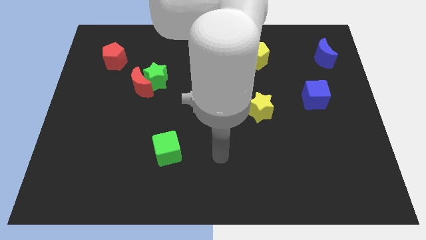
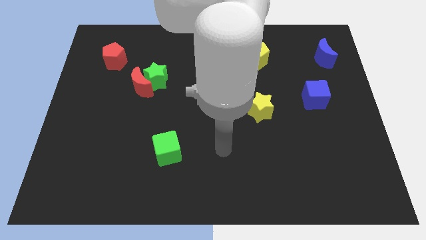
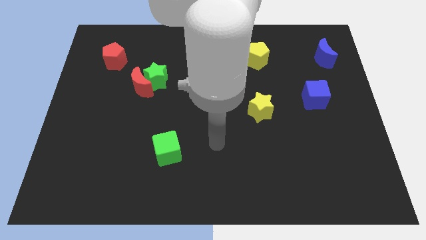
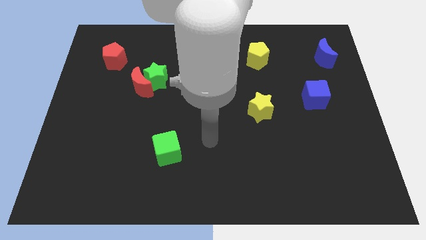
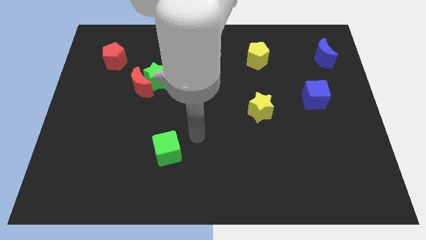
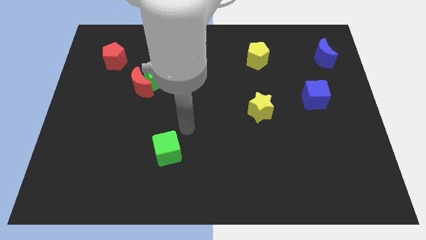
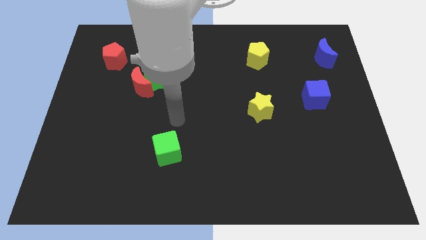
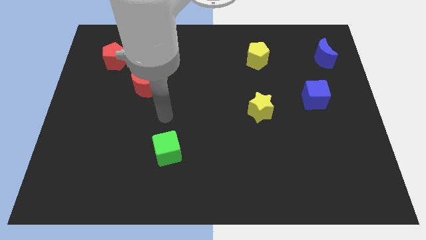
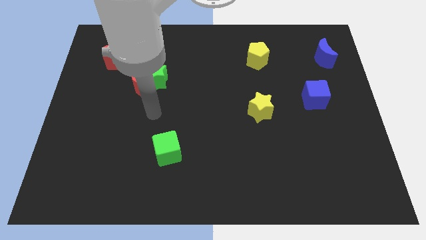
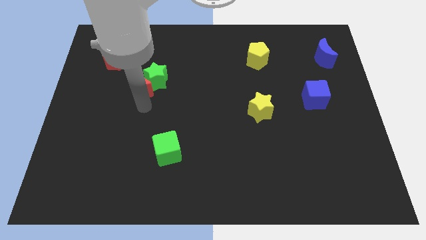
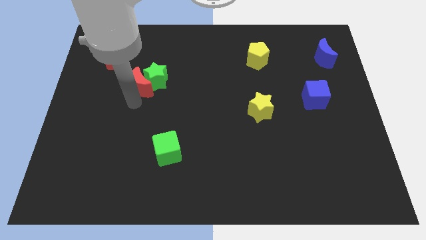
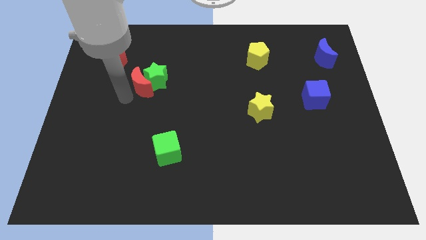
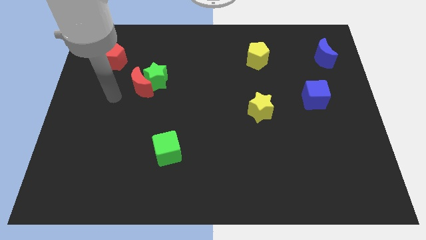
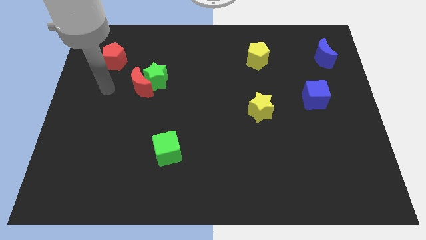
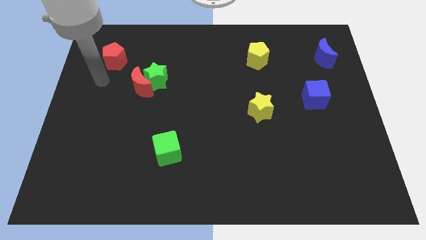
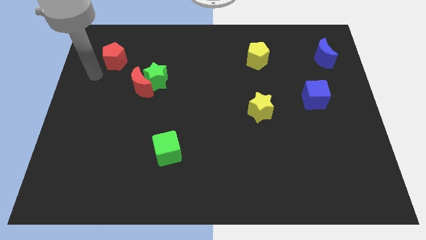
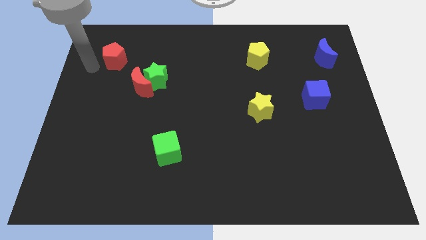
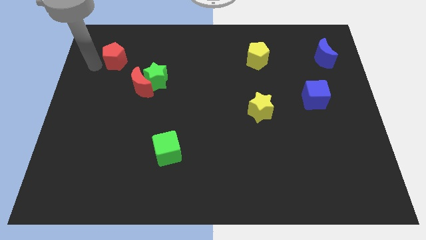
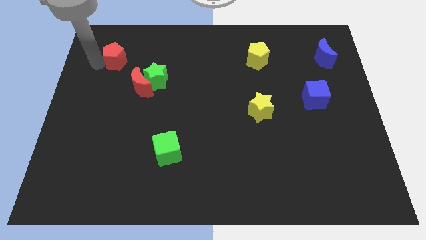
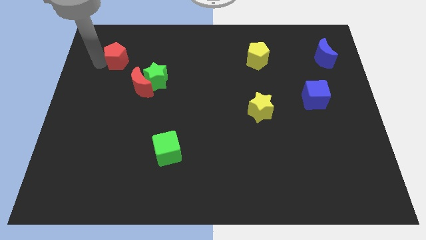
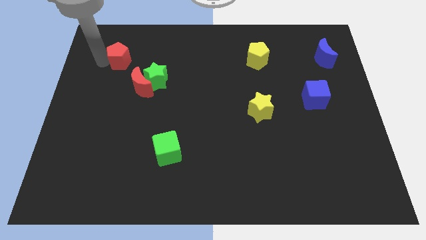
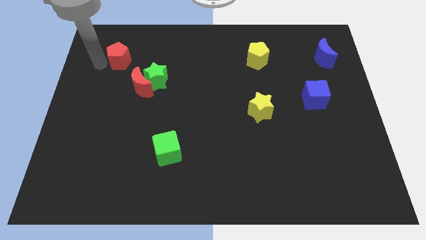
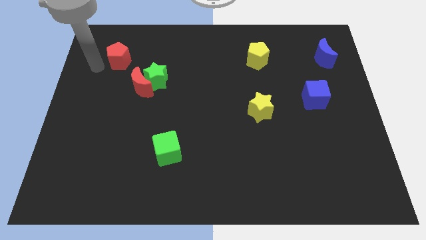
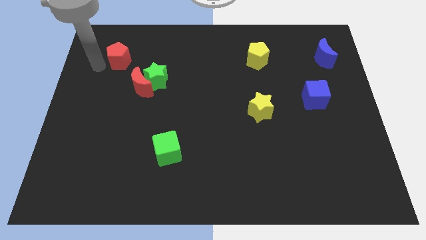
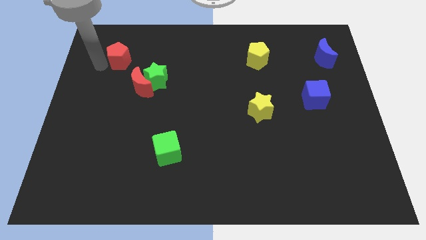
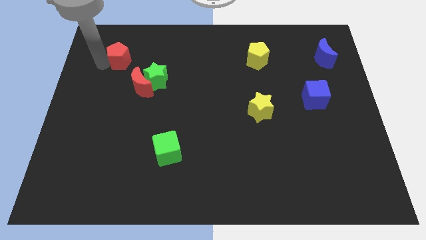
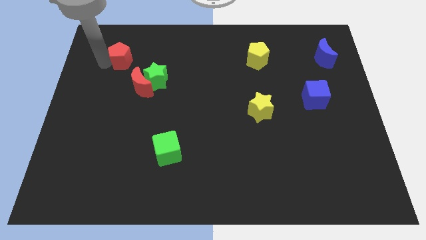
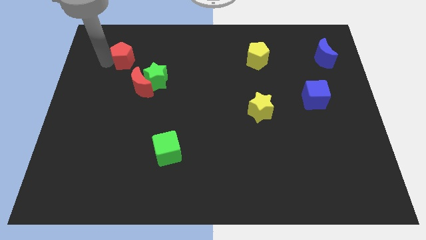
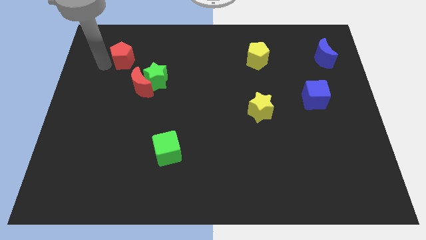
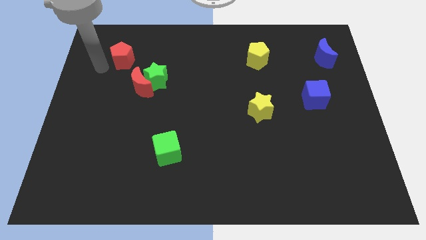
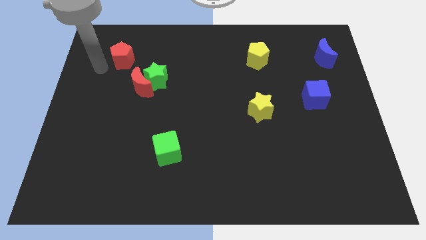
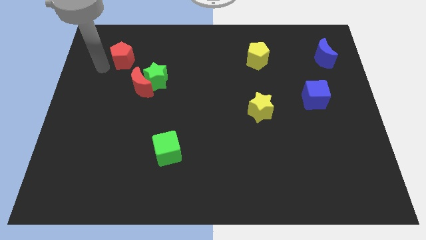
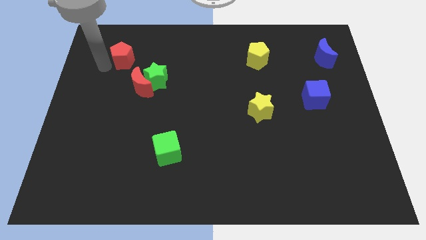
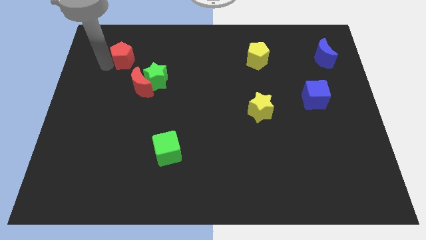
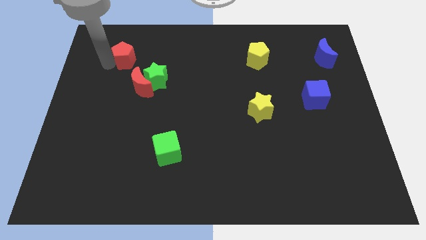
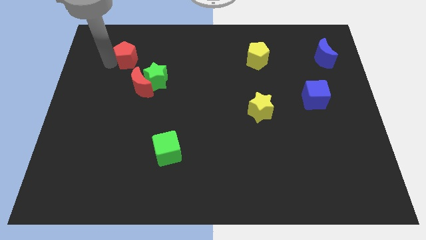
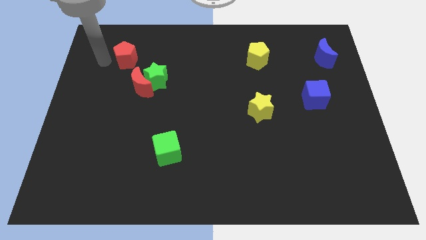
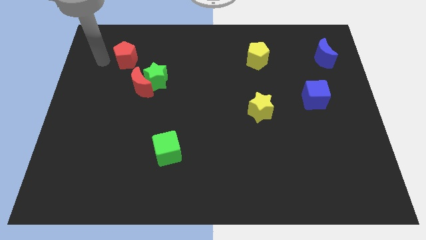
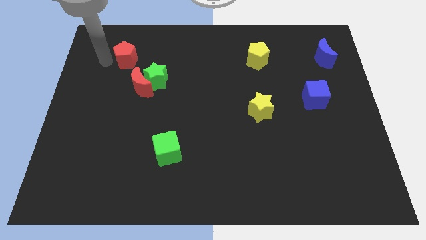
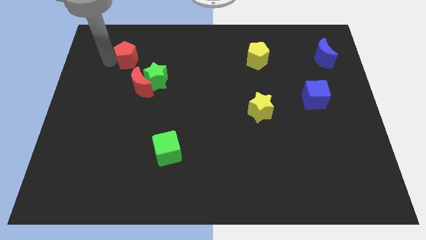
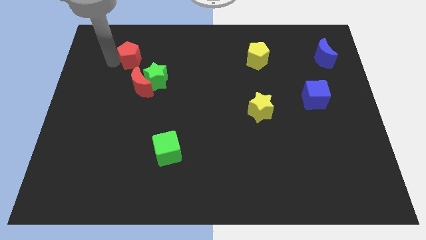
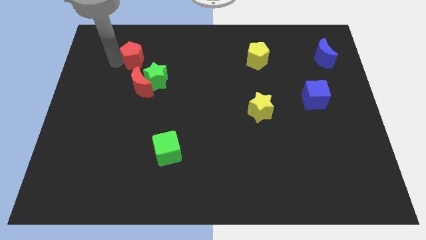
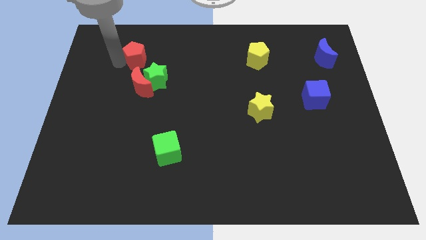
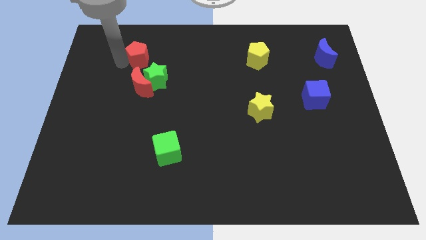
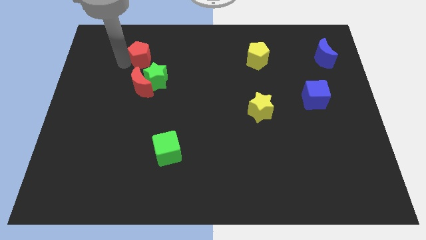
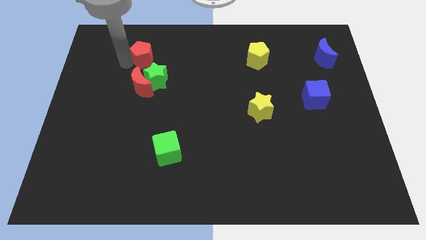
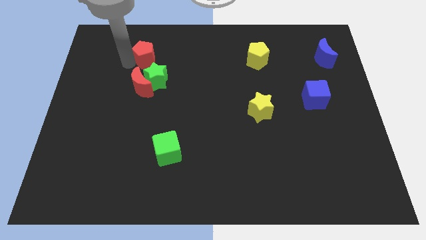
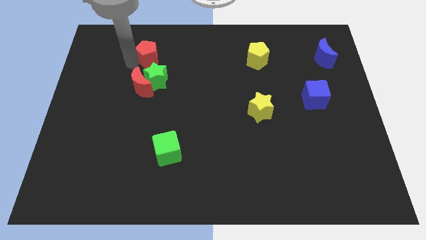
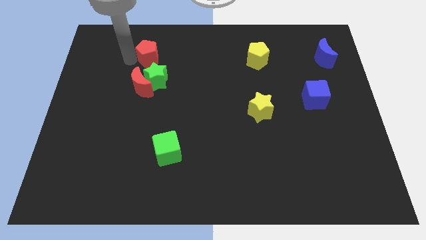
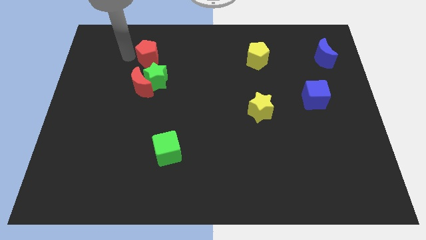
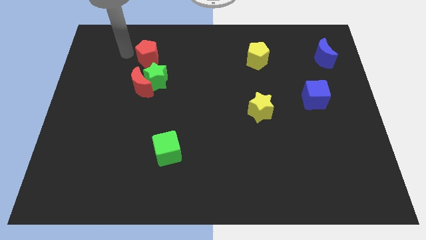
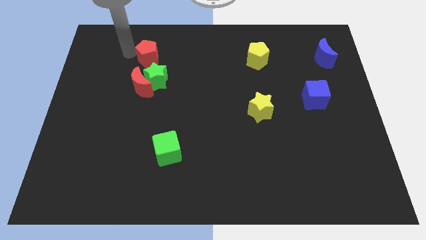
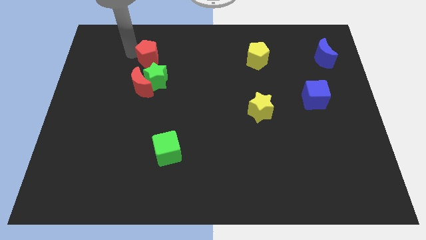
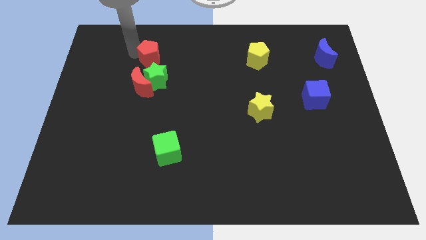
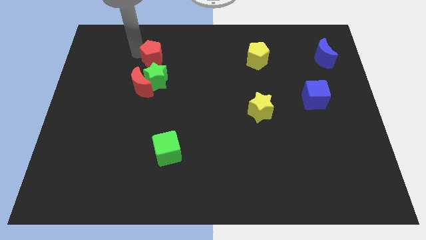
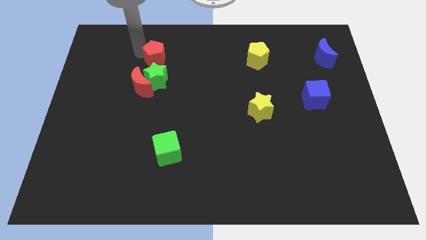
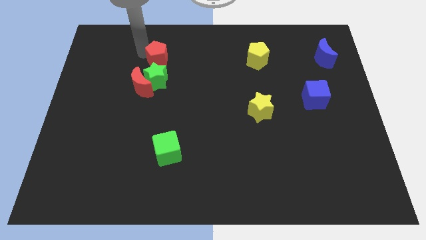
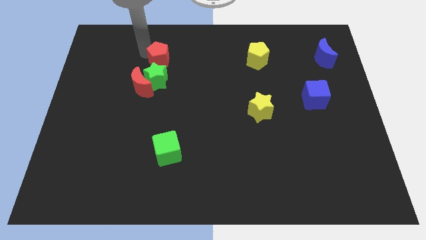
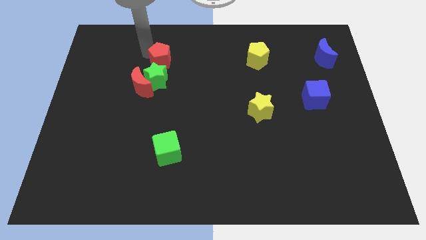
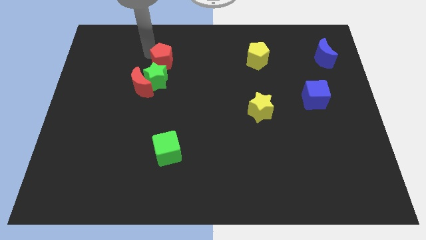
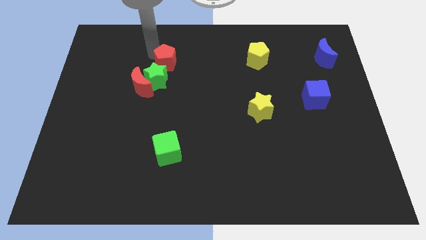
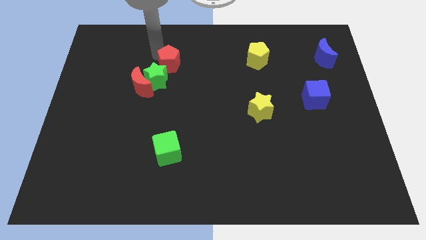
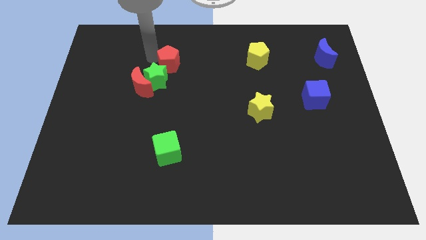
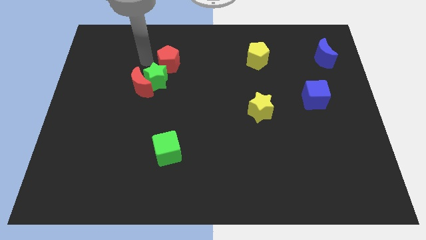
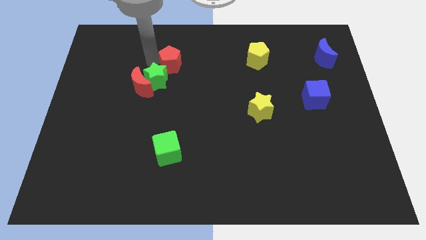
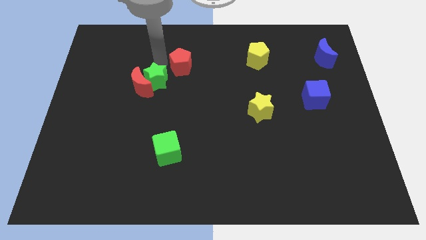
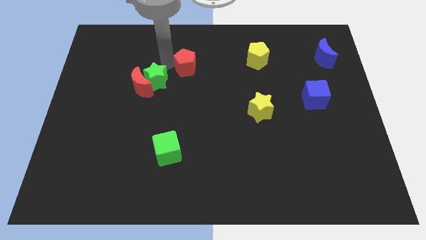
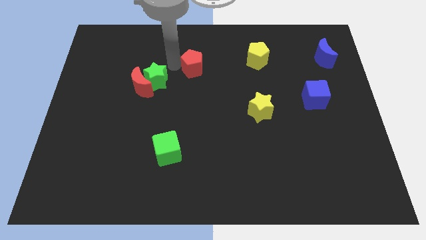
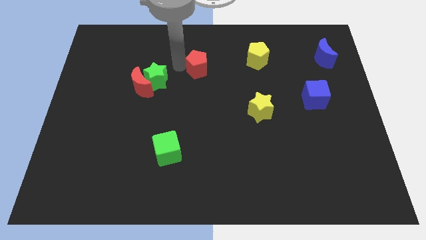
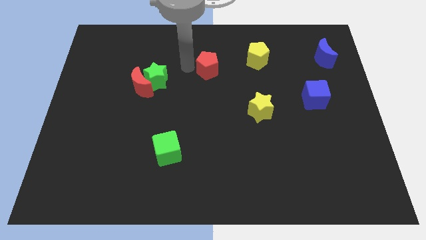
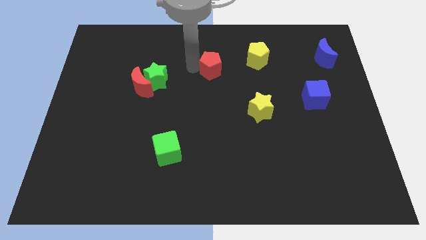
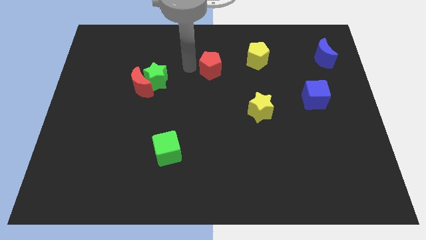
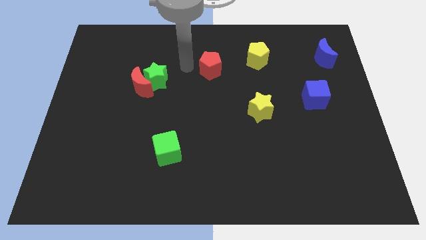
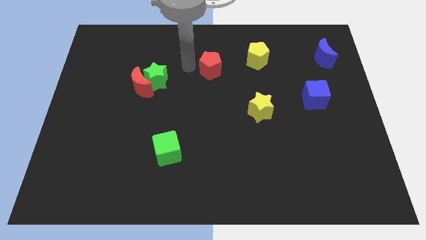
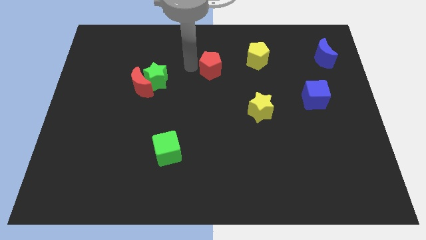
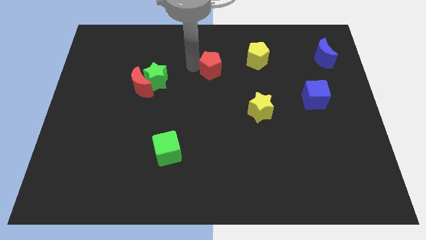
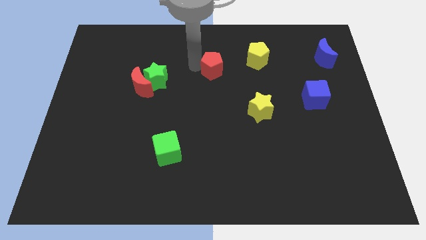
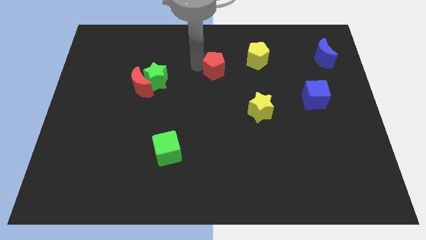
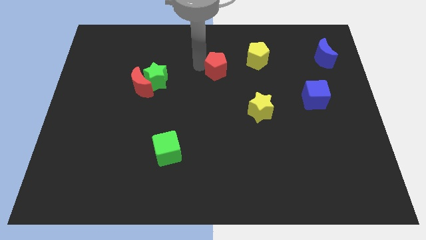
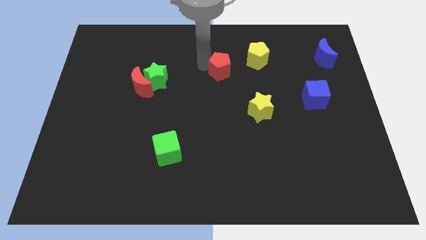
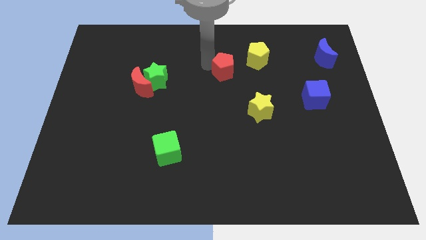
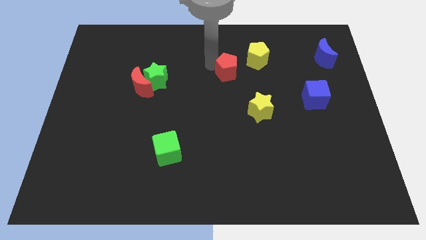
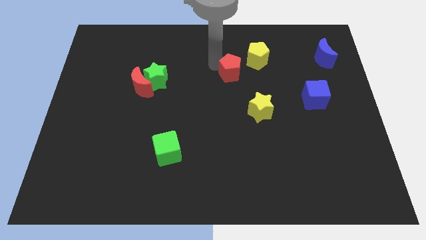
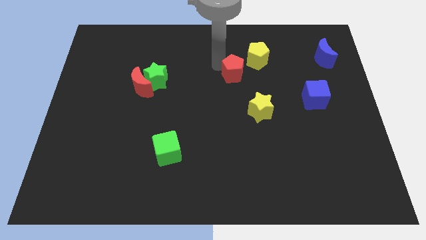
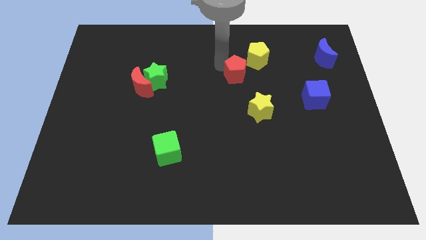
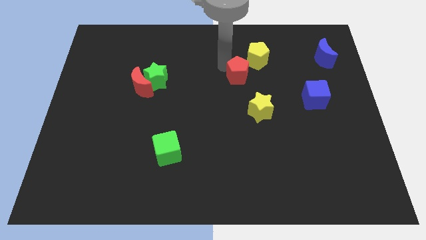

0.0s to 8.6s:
put the red pentagon to the top side of the yellow star
